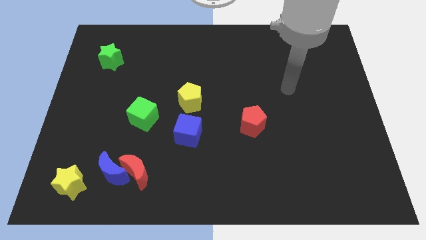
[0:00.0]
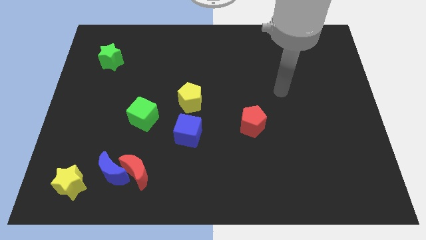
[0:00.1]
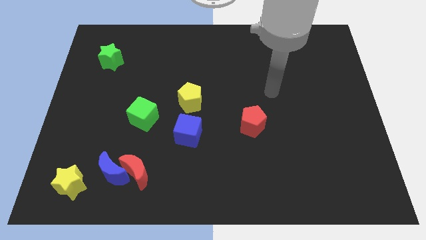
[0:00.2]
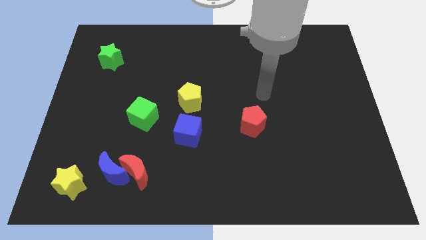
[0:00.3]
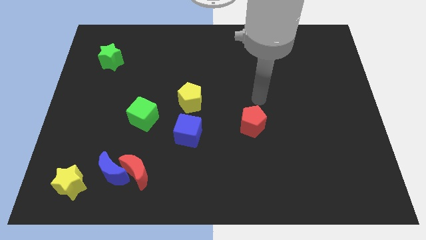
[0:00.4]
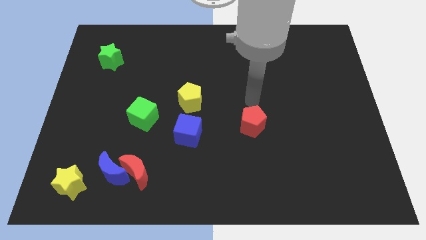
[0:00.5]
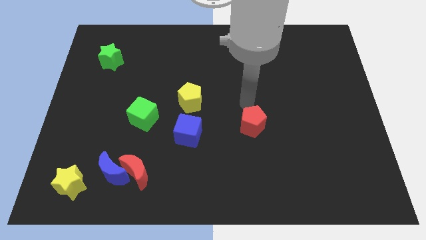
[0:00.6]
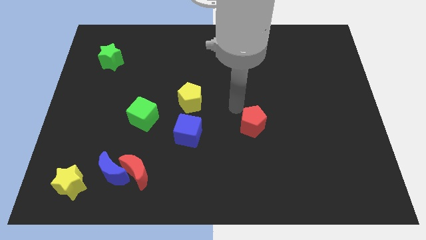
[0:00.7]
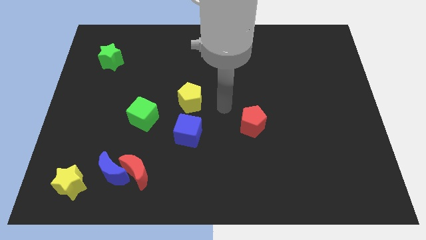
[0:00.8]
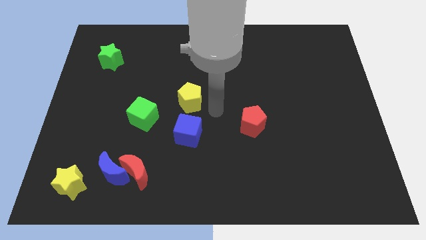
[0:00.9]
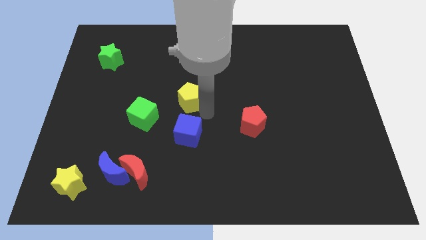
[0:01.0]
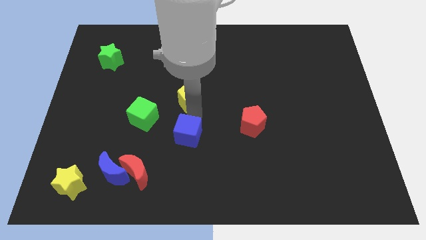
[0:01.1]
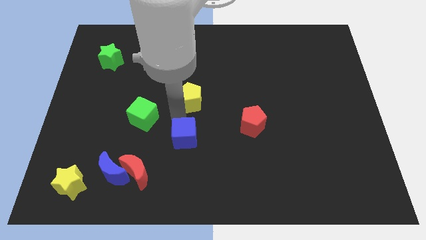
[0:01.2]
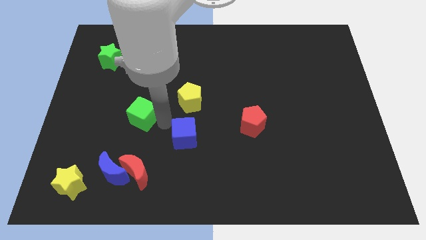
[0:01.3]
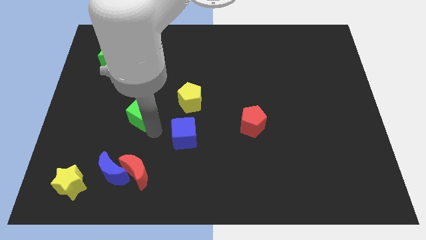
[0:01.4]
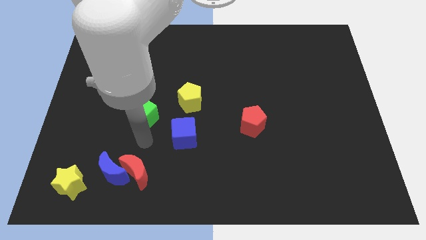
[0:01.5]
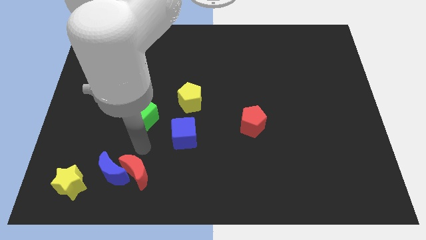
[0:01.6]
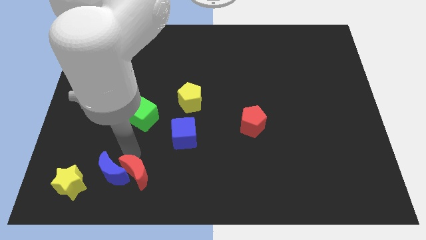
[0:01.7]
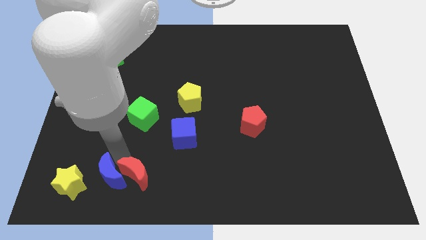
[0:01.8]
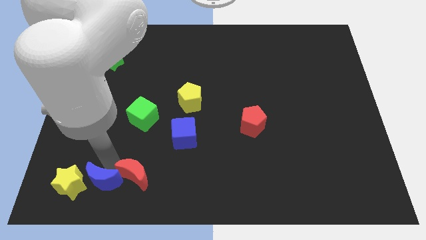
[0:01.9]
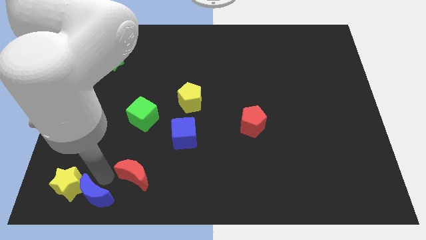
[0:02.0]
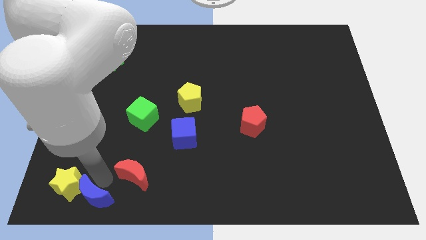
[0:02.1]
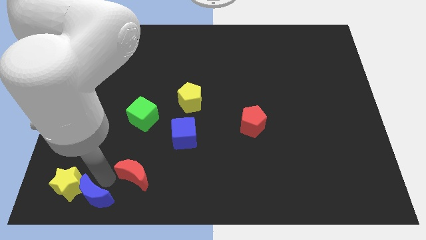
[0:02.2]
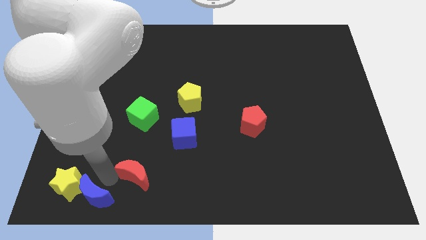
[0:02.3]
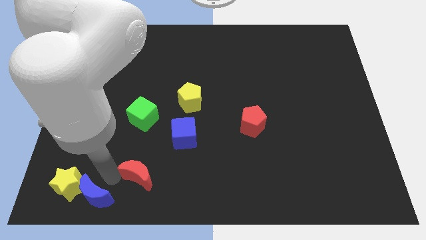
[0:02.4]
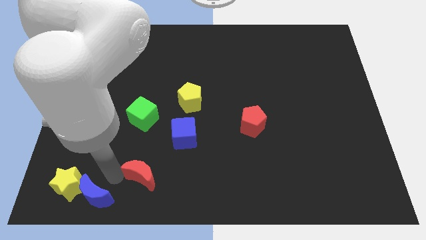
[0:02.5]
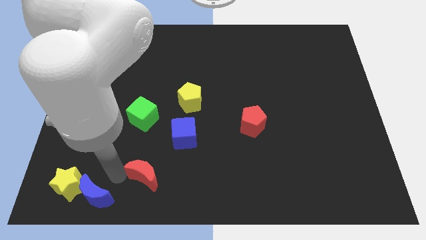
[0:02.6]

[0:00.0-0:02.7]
move the red moon away from the blue moon

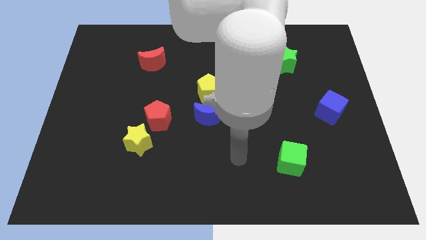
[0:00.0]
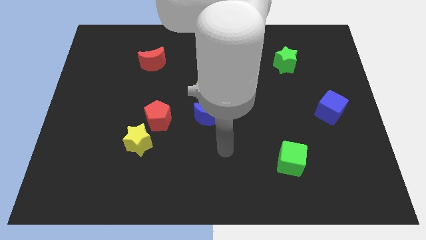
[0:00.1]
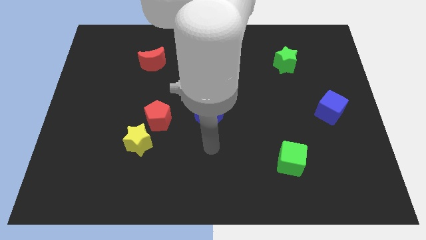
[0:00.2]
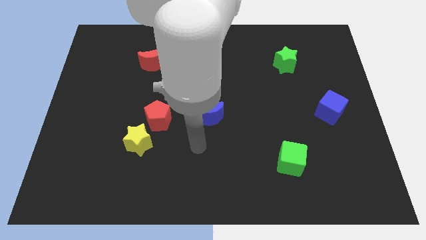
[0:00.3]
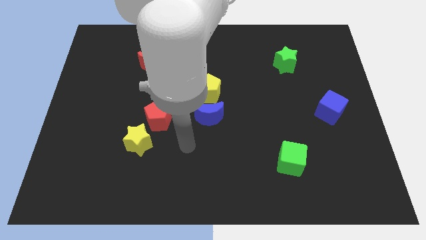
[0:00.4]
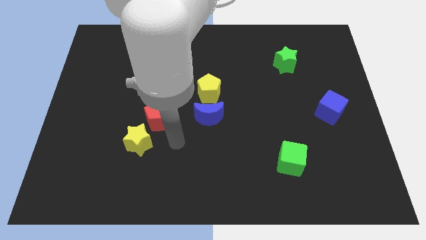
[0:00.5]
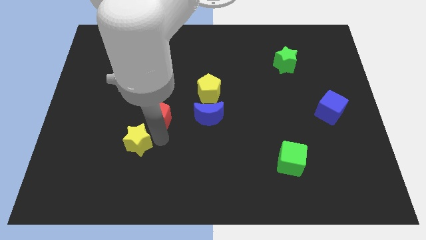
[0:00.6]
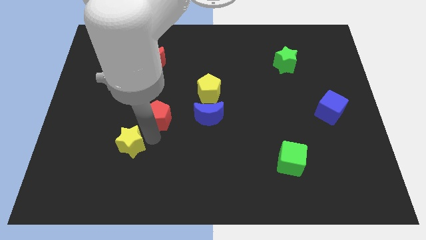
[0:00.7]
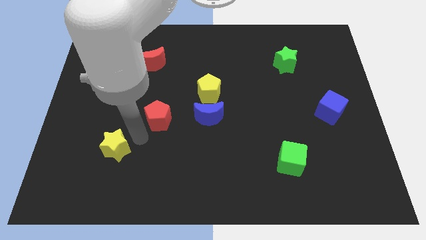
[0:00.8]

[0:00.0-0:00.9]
separate the red pentagon from the yellow star

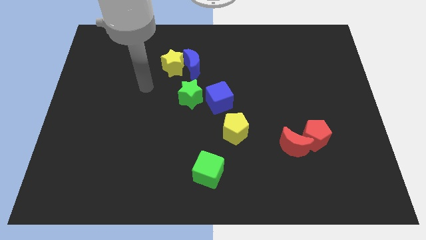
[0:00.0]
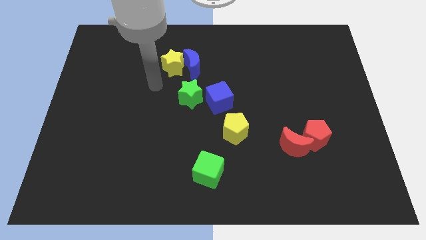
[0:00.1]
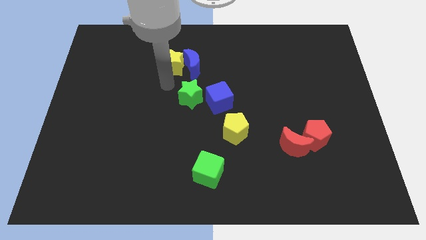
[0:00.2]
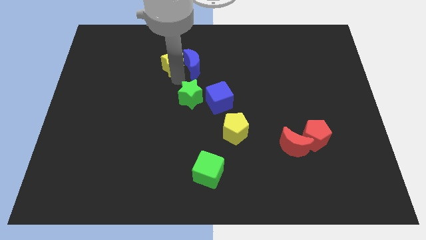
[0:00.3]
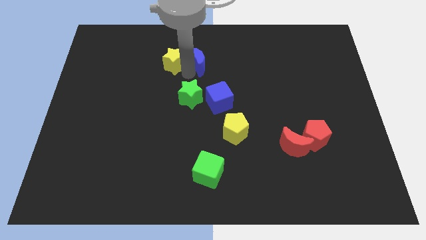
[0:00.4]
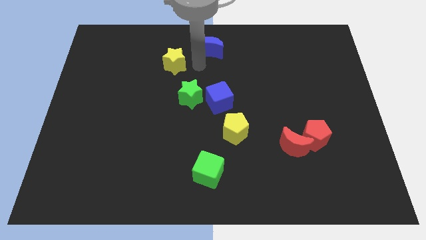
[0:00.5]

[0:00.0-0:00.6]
pull the yellow star apart from the blue moon

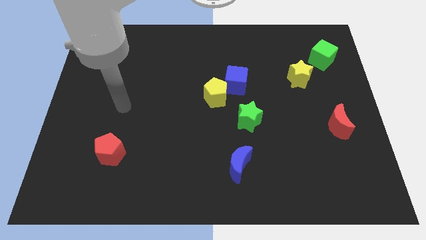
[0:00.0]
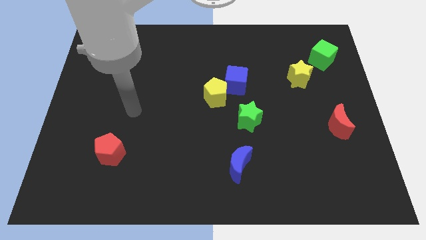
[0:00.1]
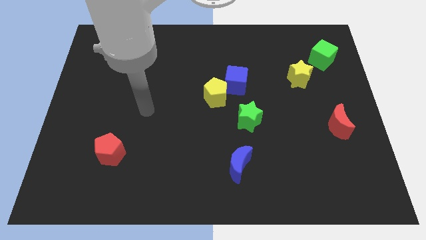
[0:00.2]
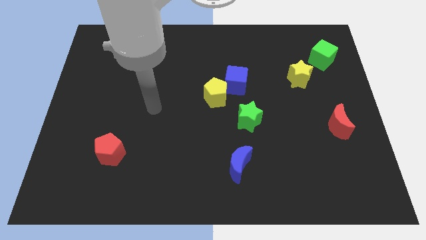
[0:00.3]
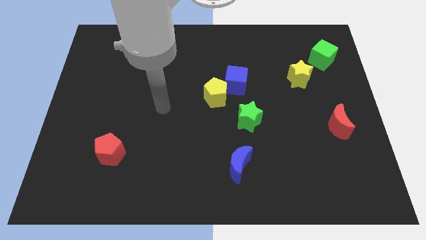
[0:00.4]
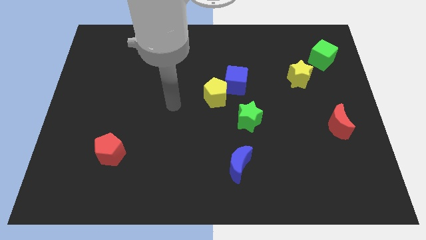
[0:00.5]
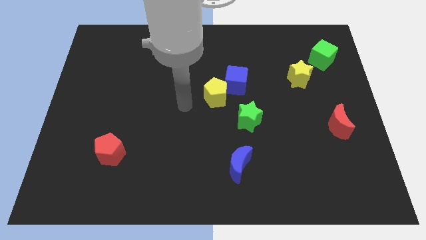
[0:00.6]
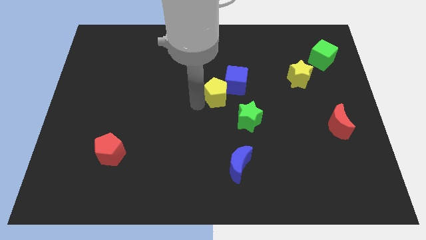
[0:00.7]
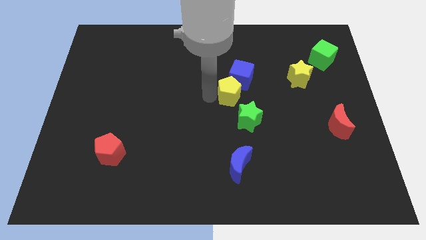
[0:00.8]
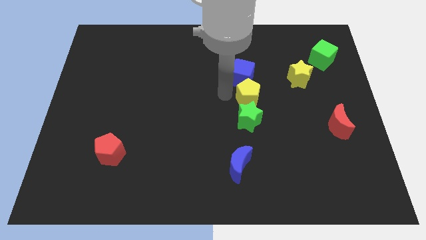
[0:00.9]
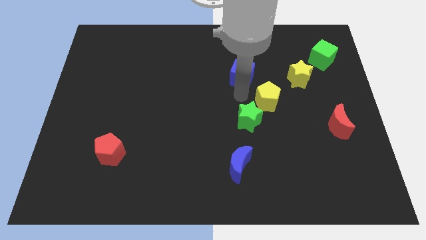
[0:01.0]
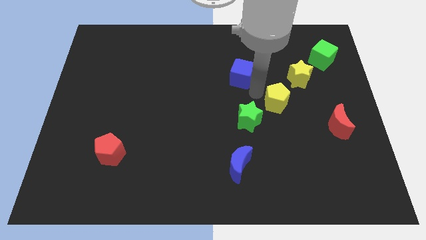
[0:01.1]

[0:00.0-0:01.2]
move the blue cube away from the yellow pentagon

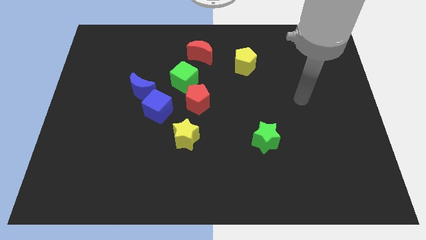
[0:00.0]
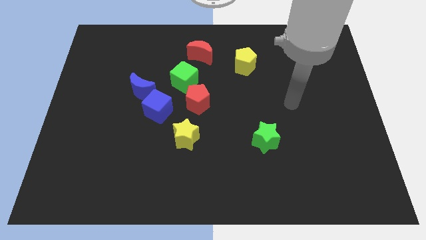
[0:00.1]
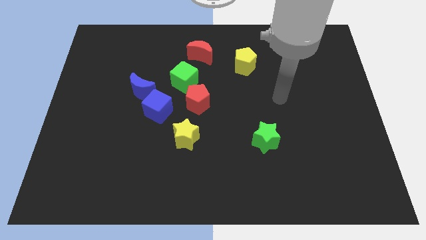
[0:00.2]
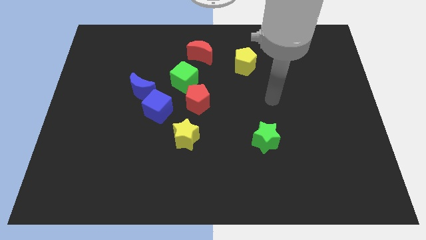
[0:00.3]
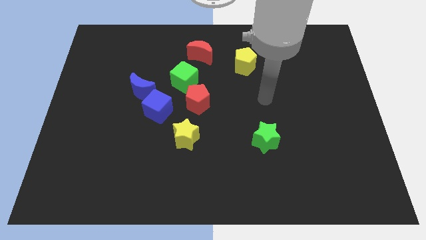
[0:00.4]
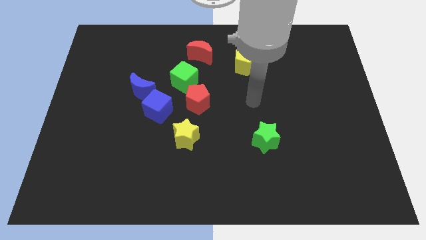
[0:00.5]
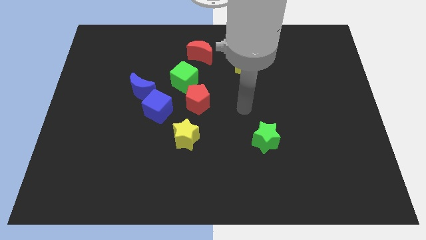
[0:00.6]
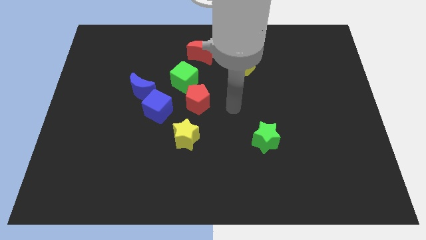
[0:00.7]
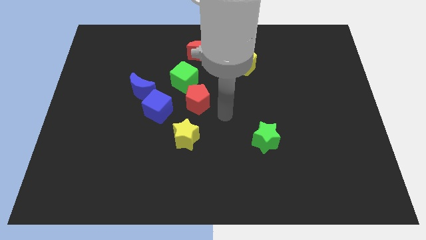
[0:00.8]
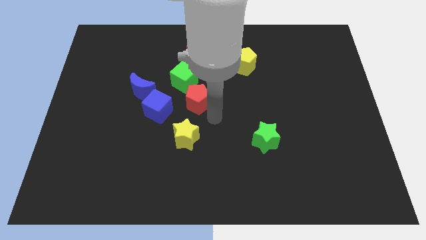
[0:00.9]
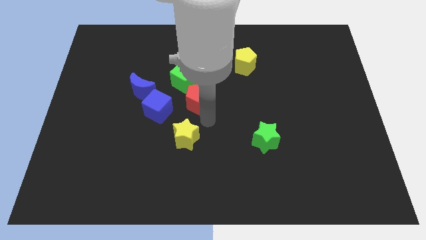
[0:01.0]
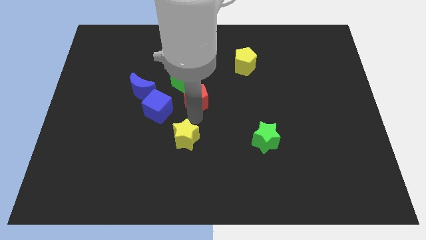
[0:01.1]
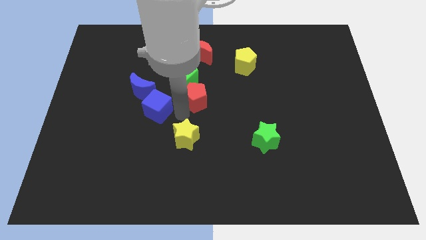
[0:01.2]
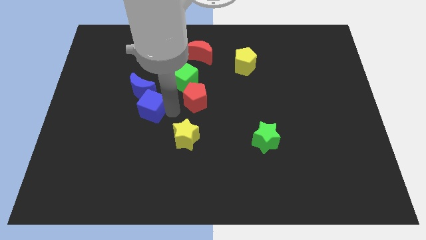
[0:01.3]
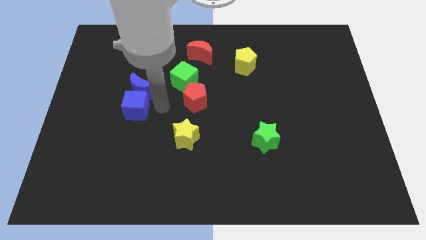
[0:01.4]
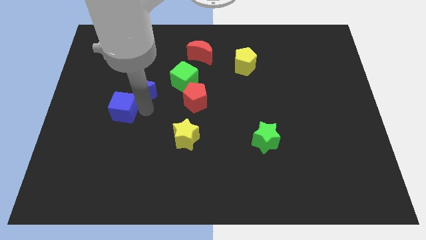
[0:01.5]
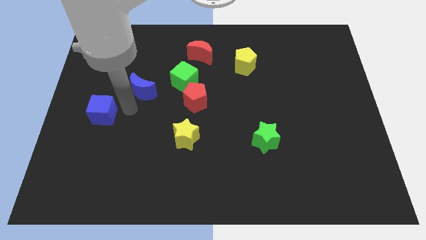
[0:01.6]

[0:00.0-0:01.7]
pull the blue moon apart from the blue cube

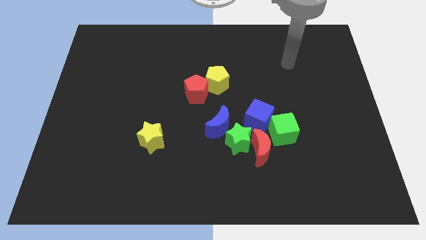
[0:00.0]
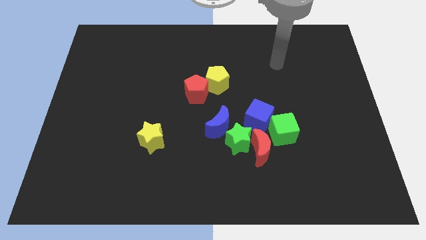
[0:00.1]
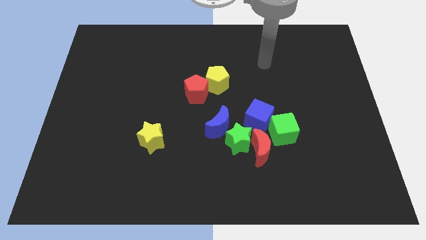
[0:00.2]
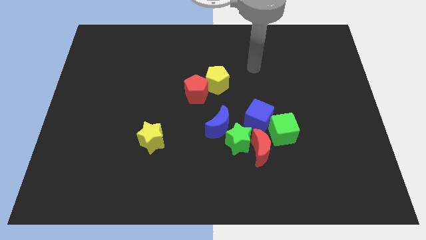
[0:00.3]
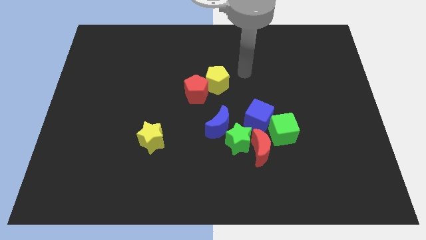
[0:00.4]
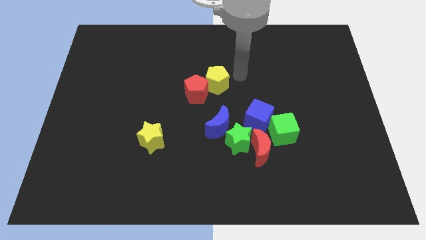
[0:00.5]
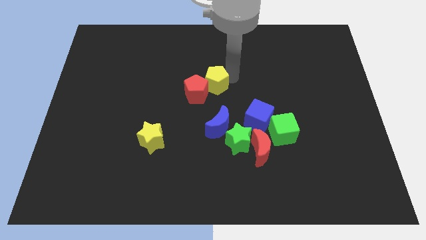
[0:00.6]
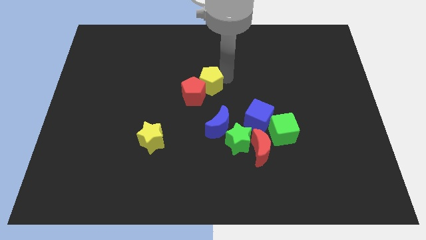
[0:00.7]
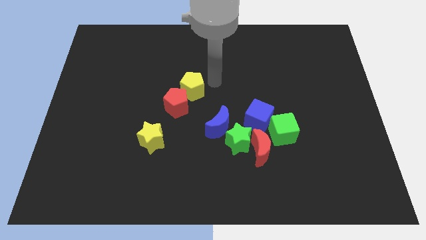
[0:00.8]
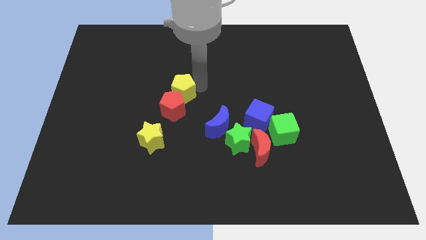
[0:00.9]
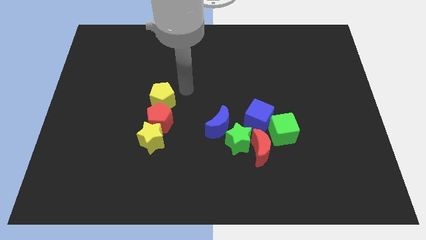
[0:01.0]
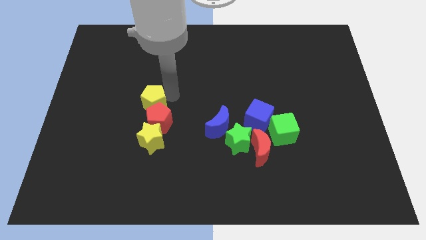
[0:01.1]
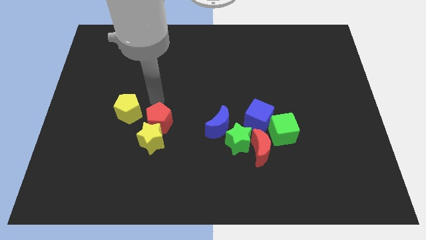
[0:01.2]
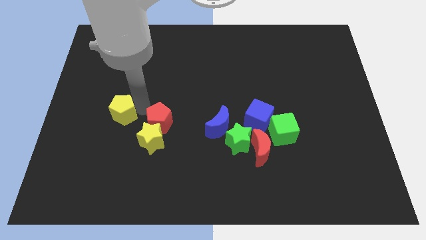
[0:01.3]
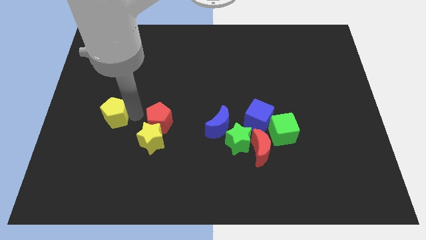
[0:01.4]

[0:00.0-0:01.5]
move the red pentagon away from the yellow pentagon

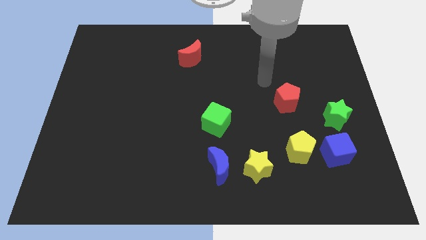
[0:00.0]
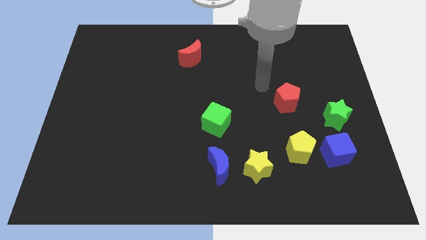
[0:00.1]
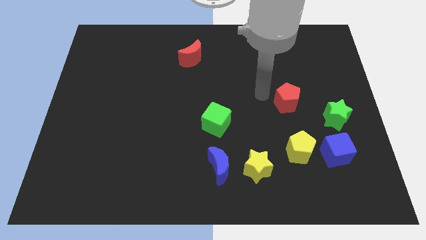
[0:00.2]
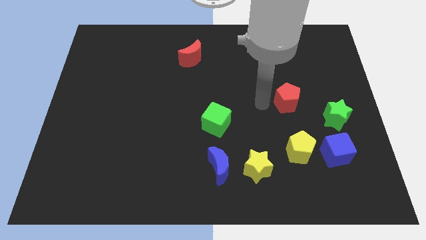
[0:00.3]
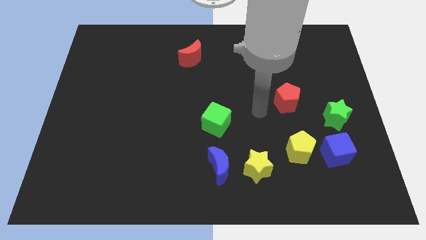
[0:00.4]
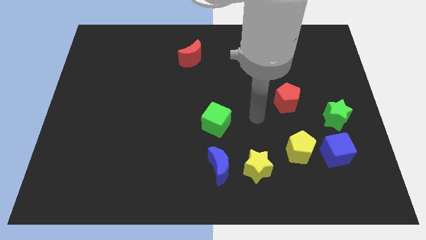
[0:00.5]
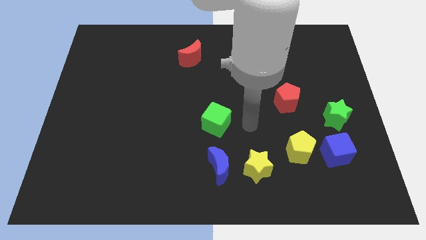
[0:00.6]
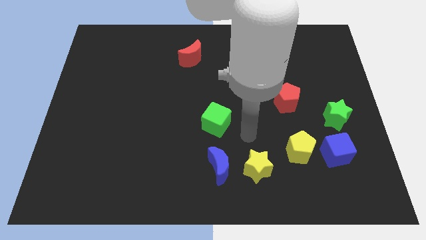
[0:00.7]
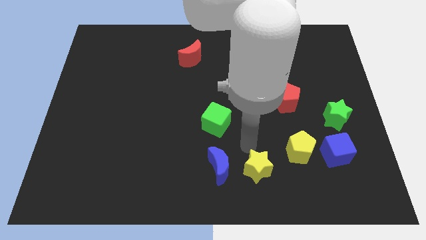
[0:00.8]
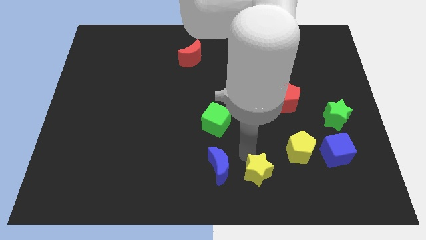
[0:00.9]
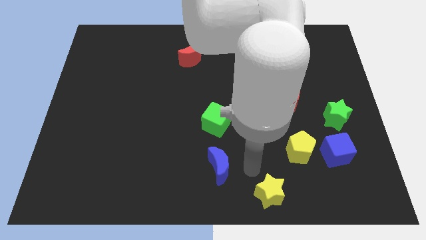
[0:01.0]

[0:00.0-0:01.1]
move the blue moon away from the yellow star
